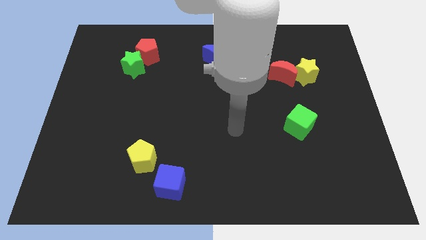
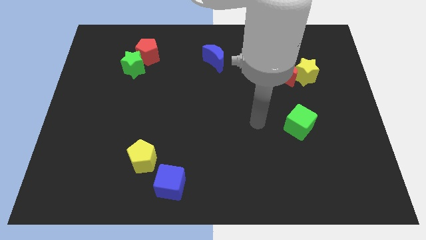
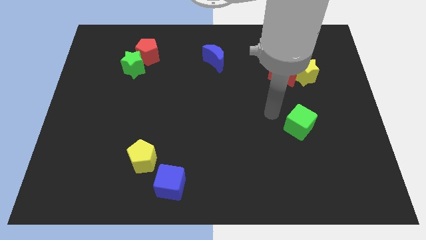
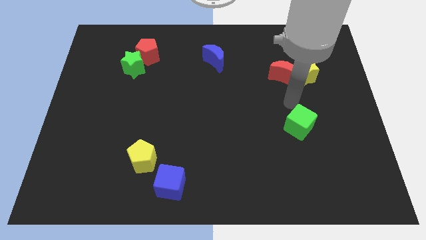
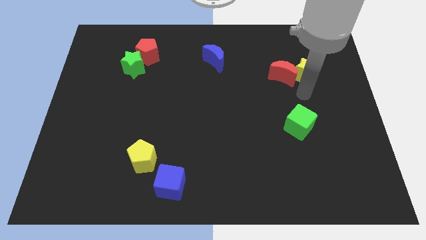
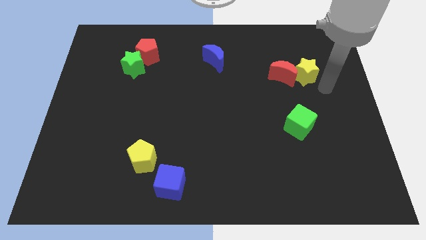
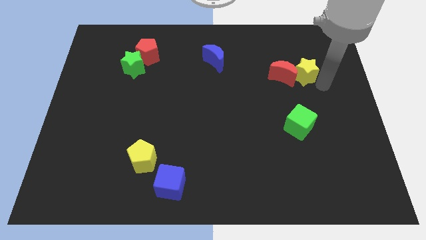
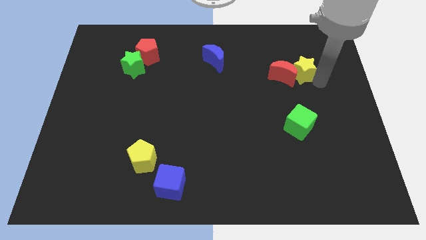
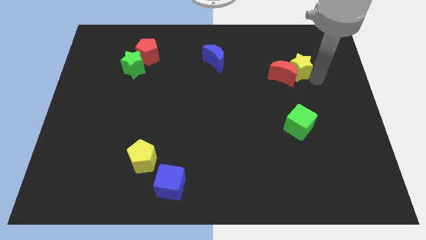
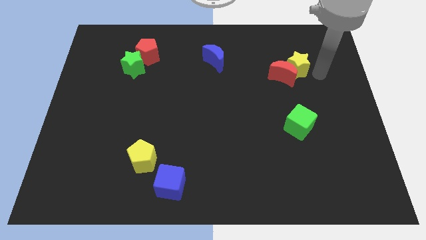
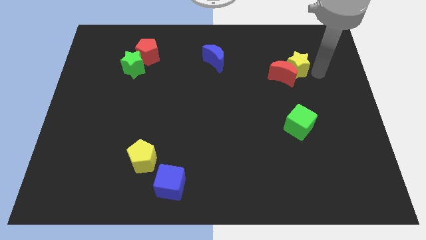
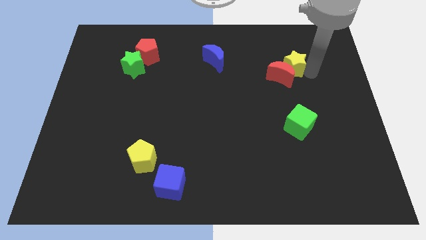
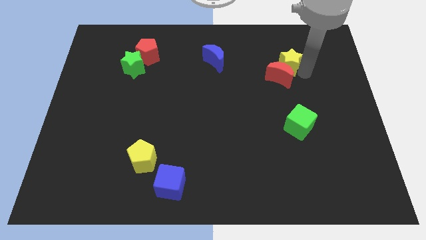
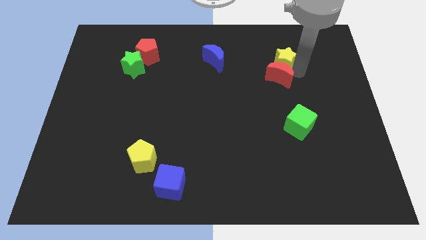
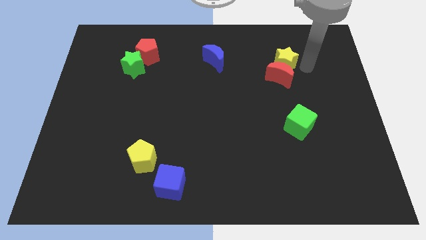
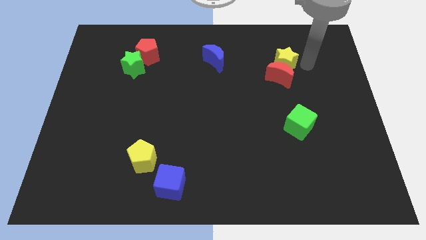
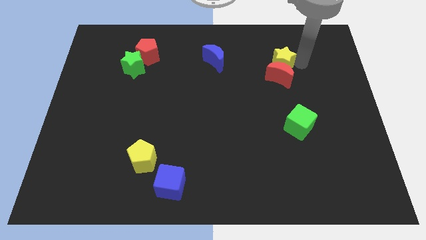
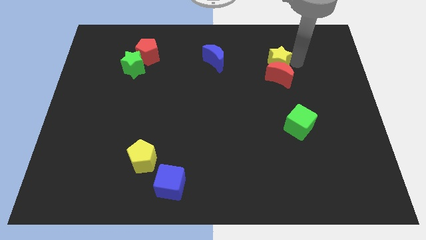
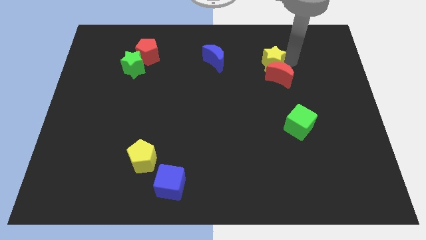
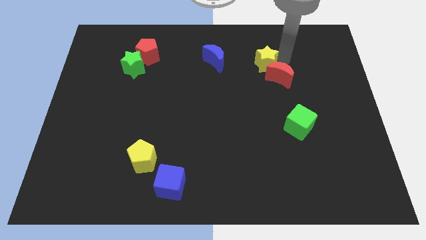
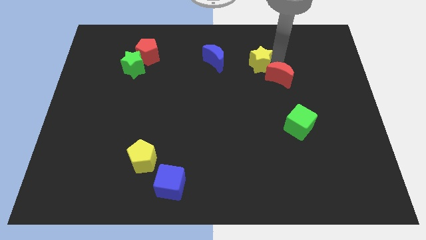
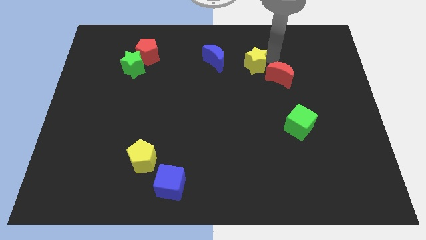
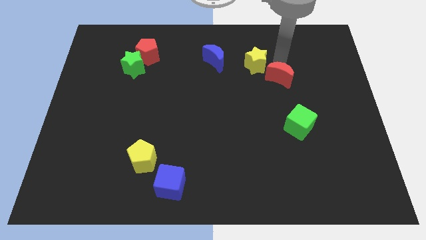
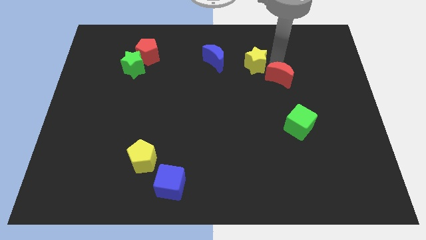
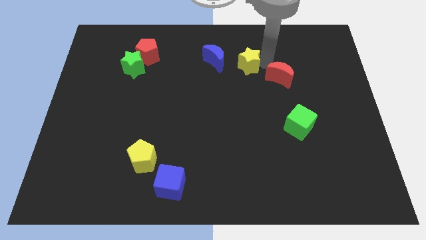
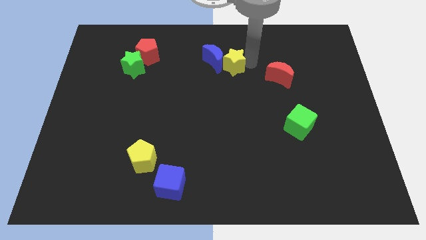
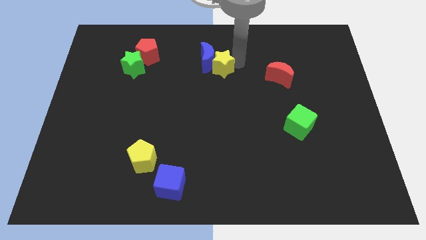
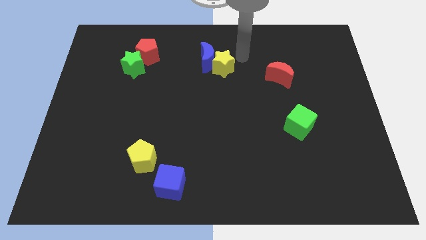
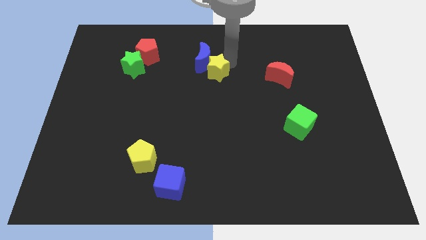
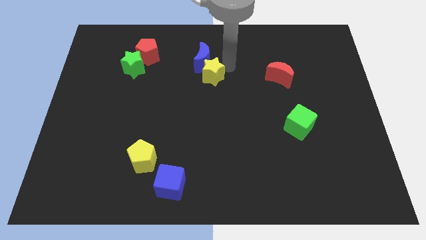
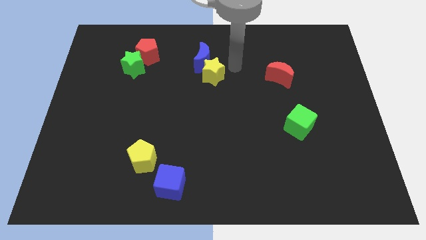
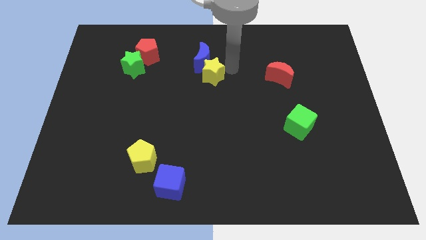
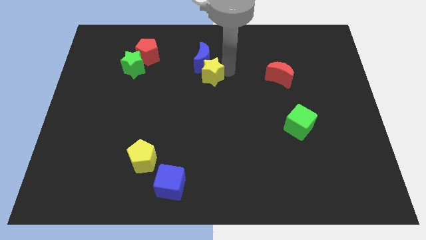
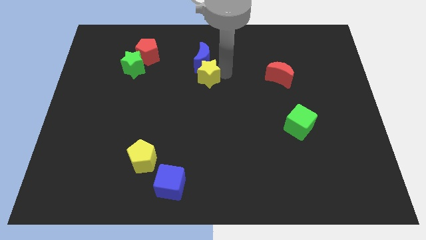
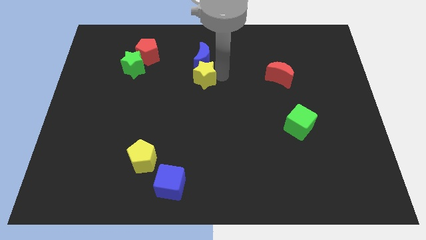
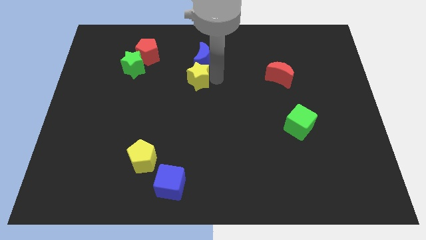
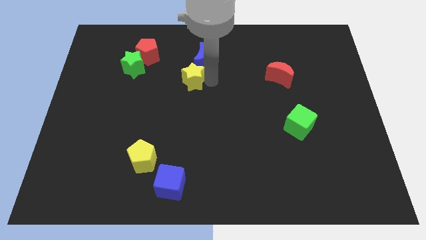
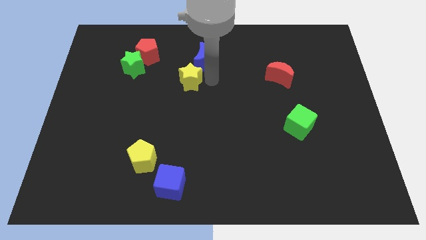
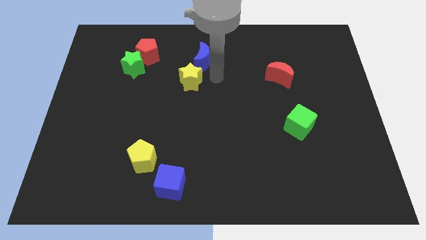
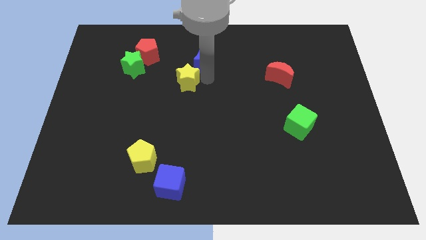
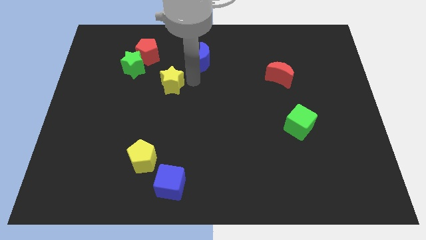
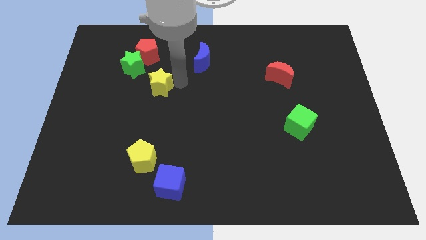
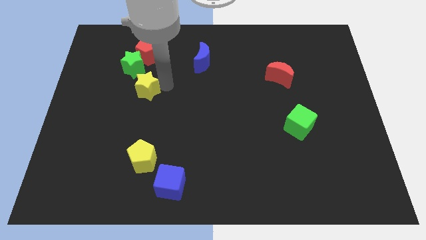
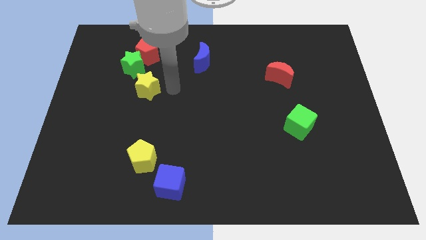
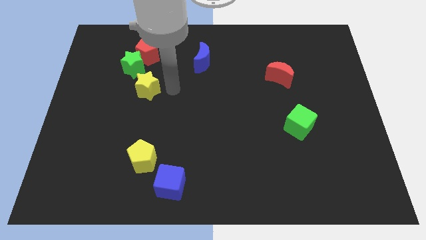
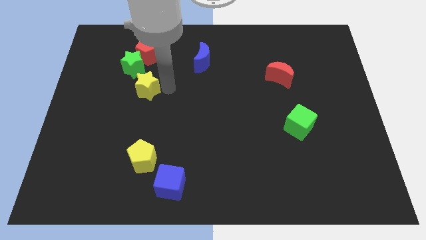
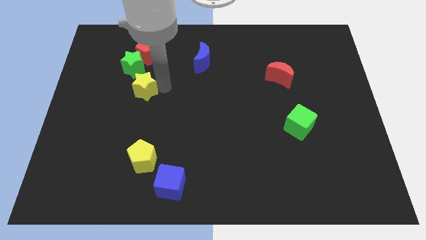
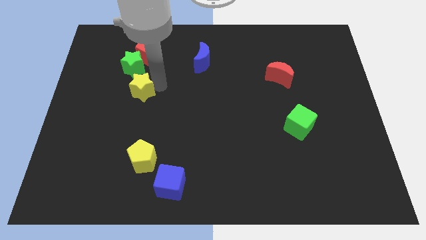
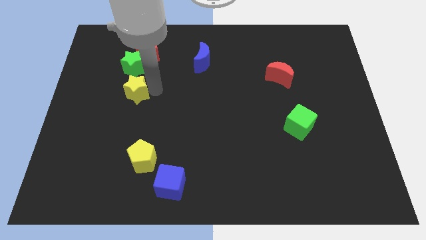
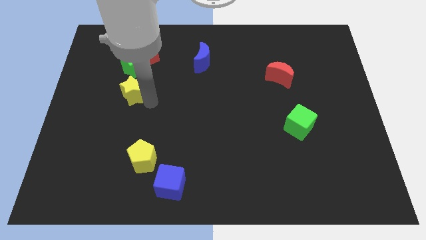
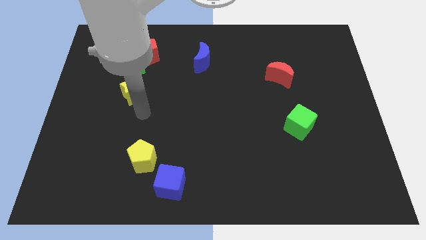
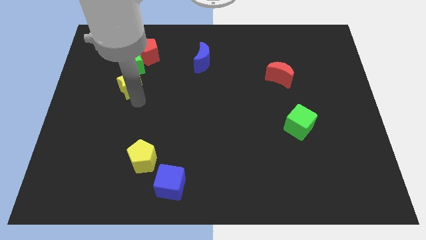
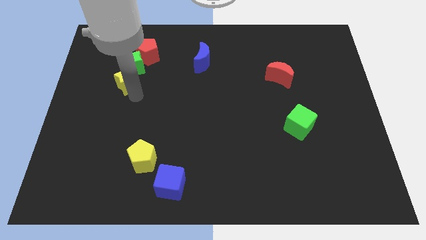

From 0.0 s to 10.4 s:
push the yellow star to the bottom left side of the red pentagon

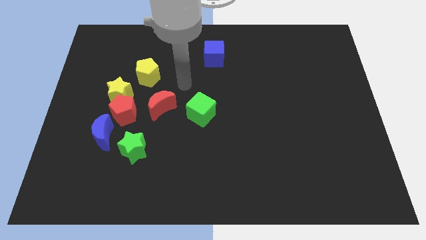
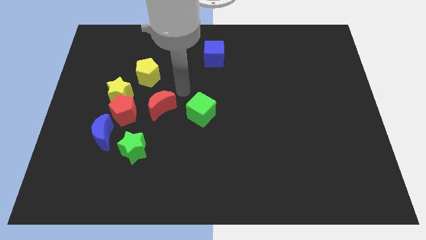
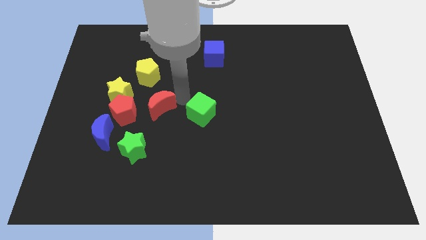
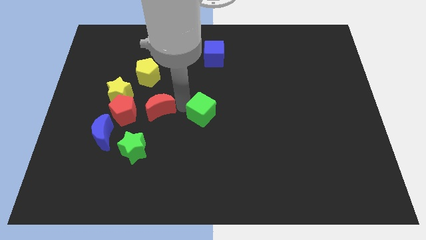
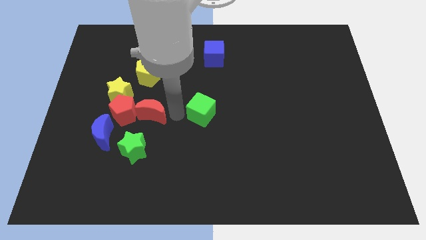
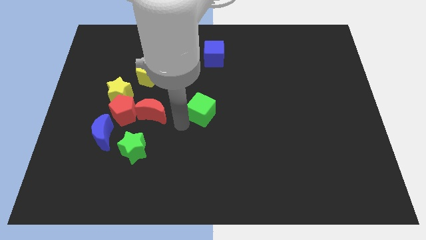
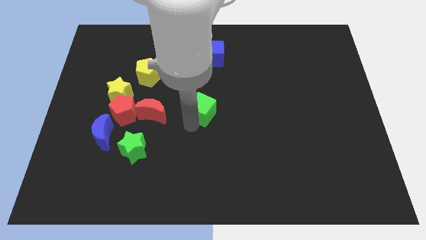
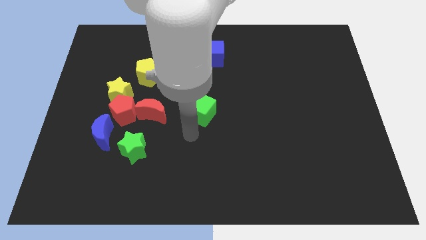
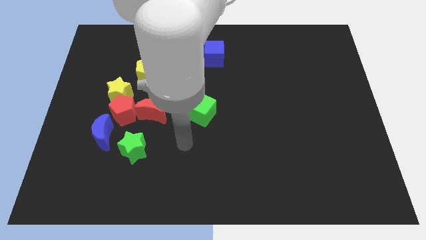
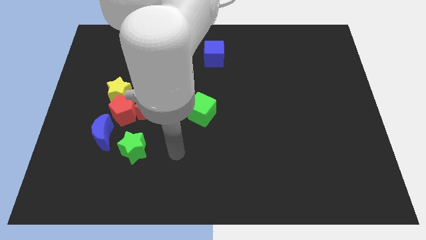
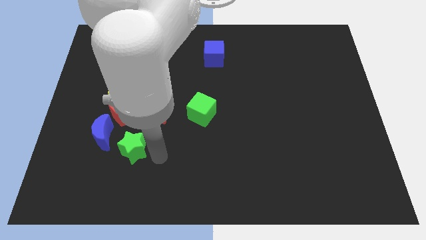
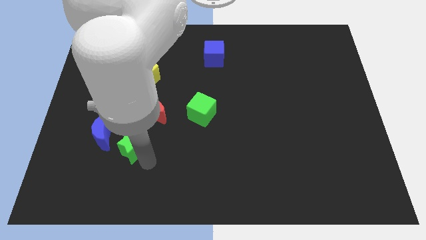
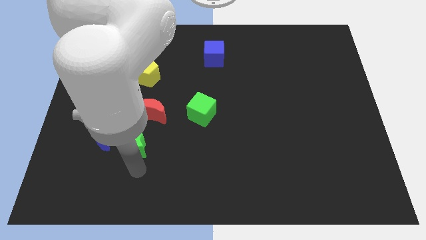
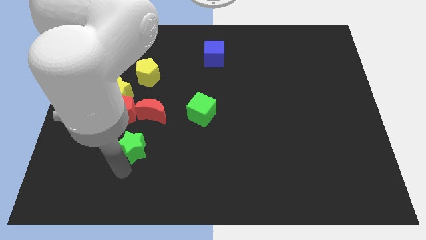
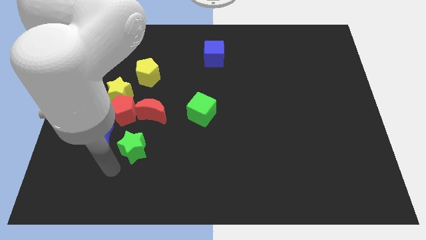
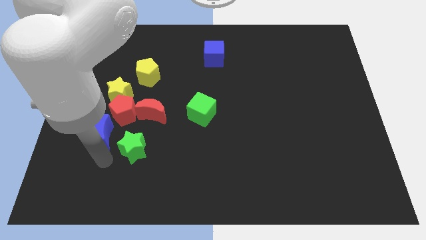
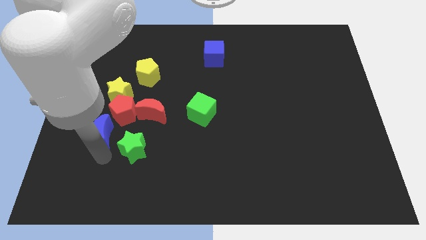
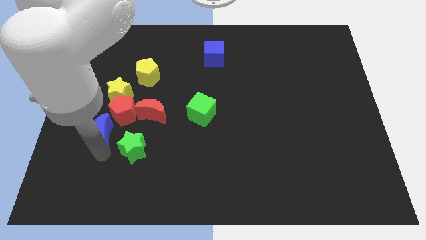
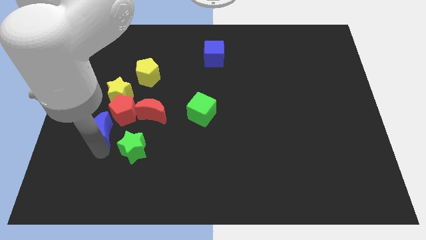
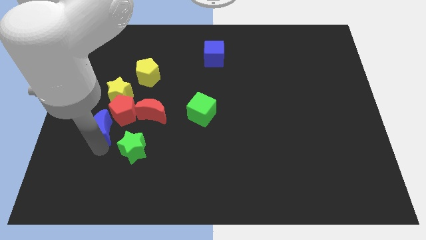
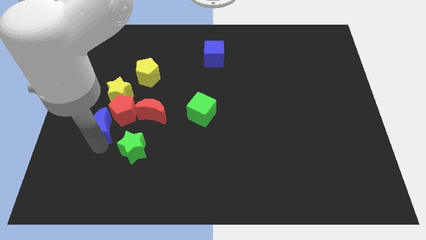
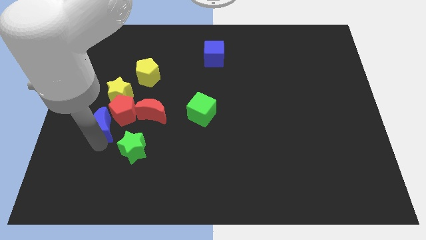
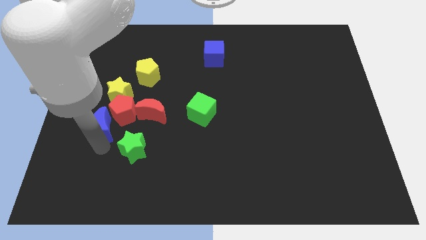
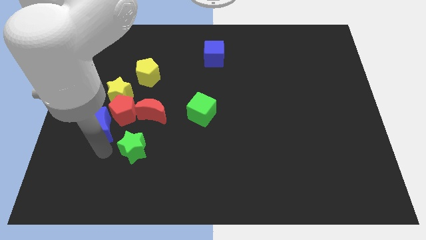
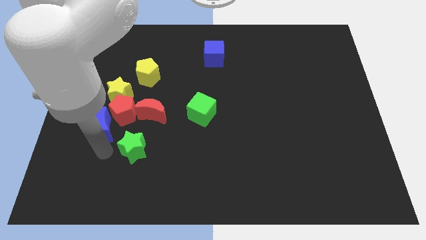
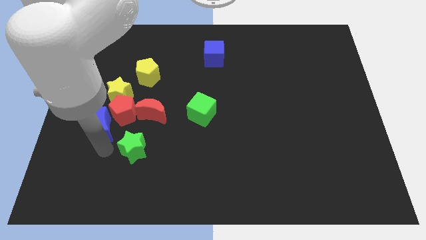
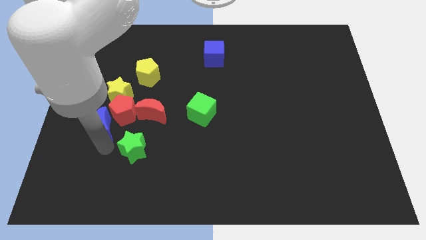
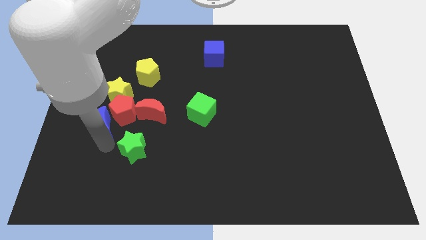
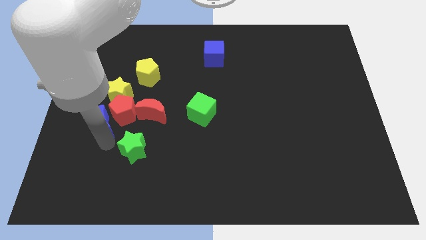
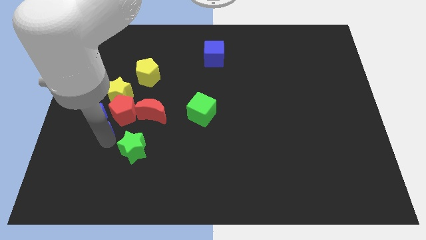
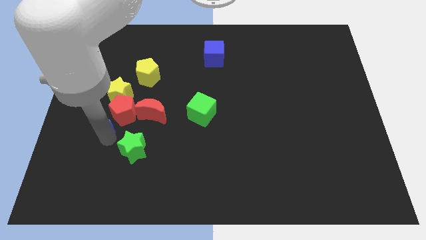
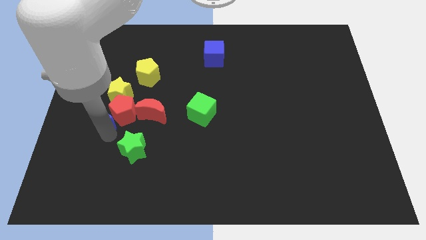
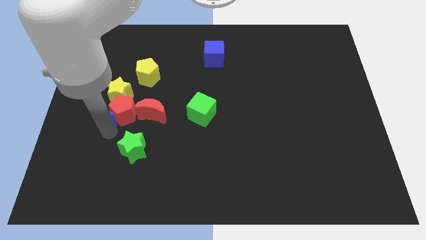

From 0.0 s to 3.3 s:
move the blue moon diagonally up and to the left of the red pentagon
